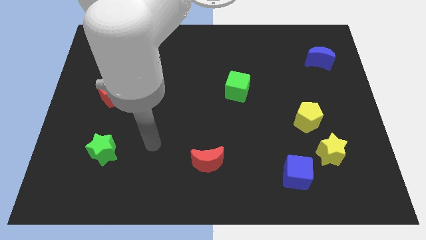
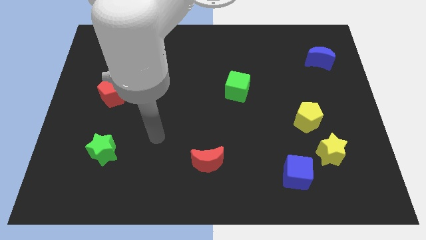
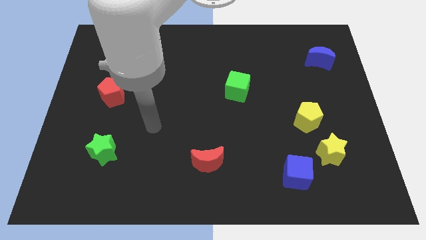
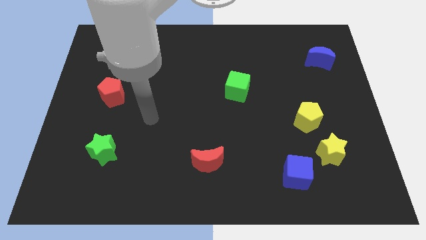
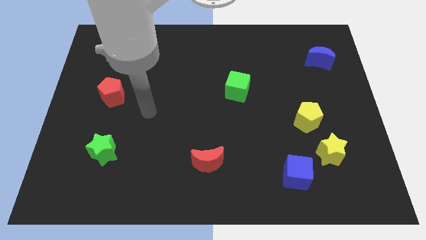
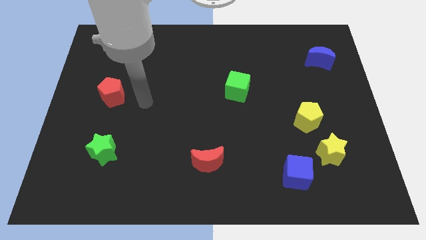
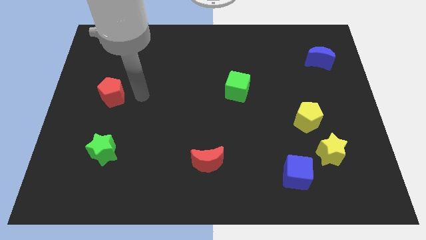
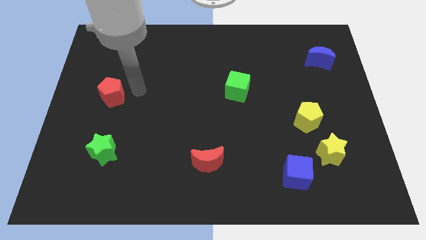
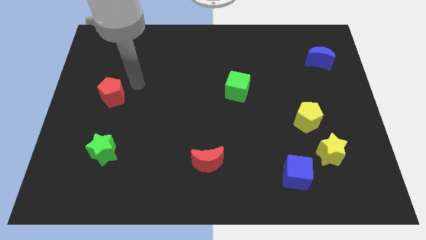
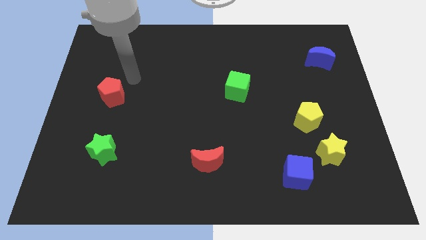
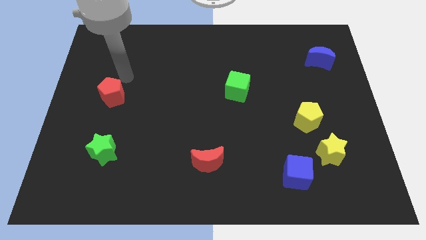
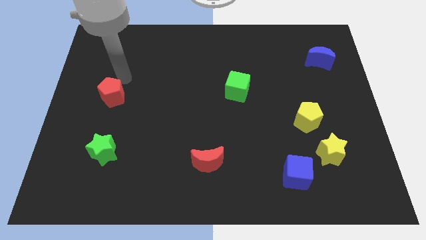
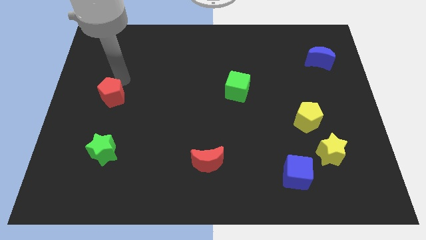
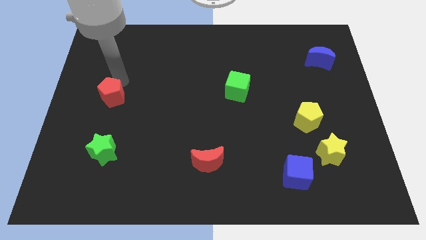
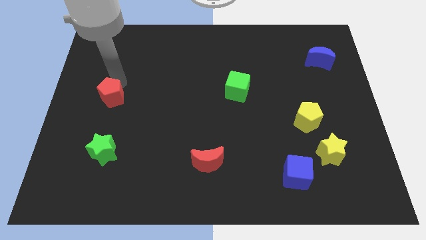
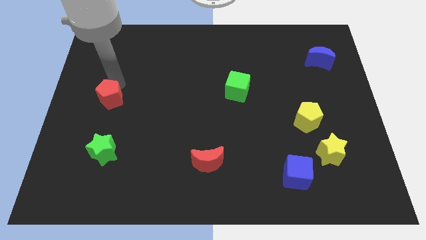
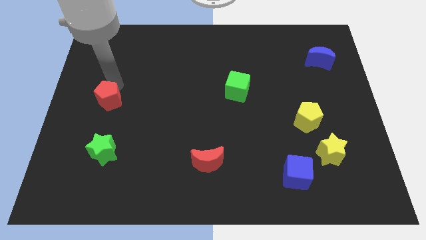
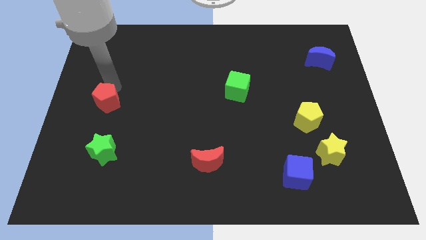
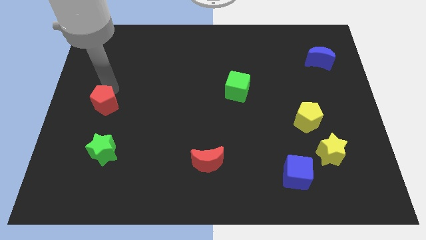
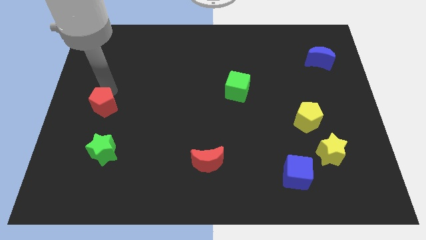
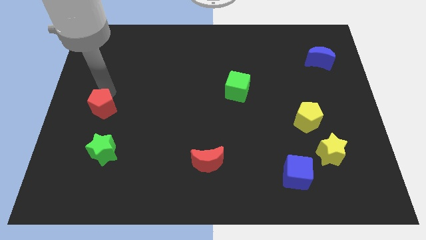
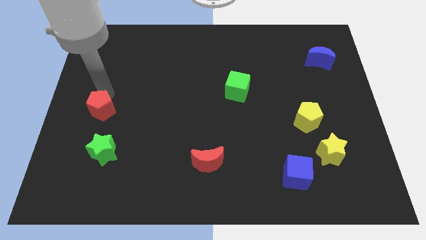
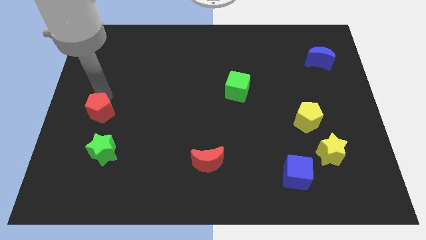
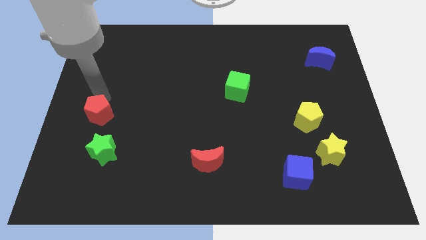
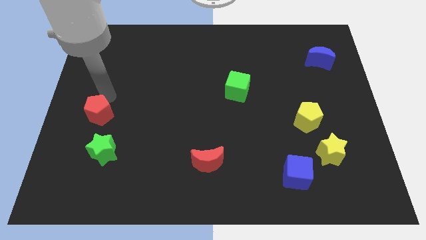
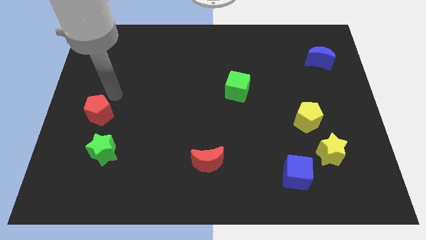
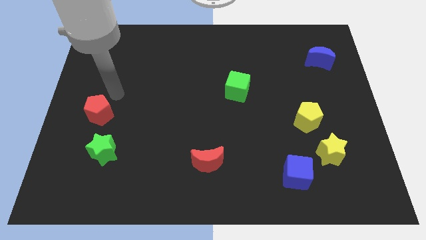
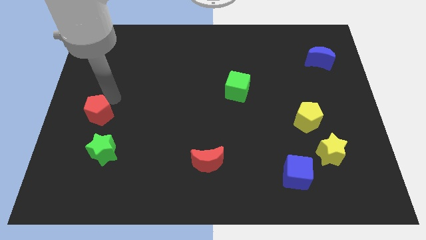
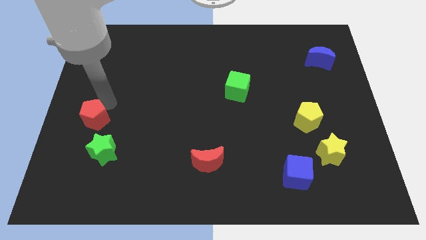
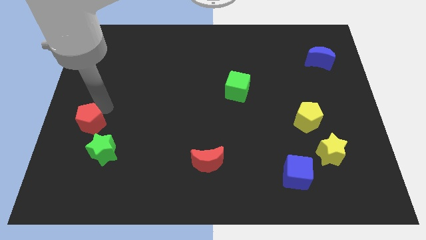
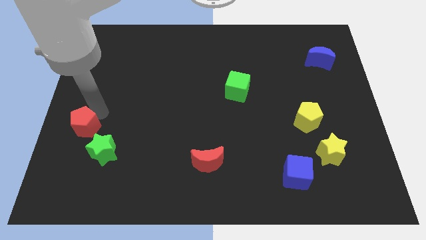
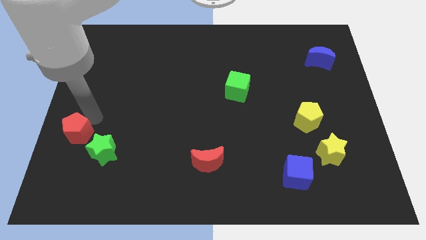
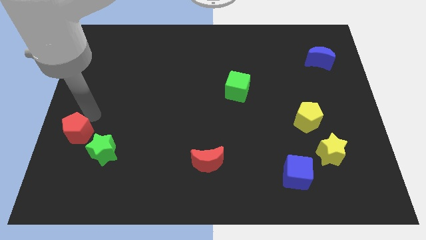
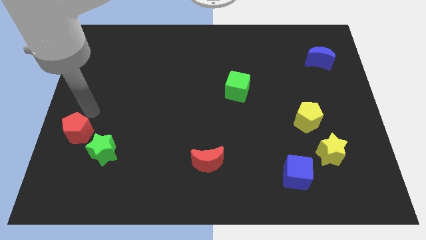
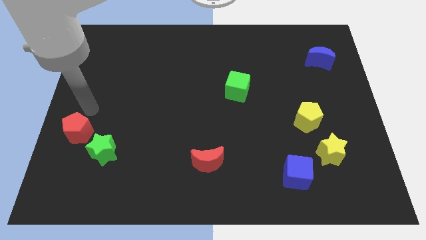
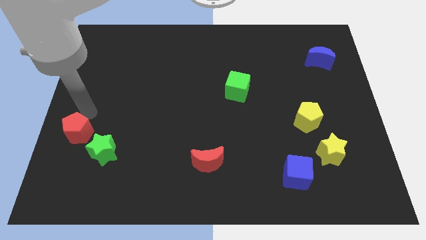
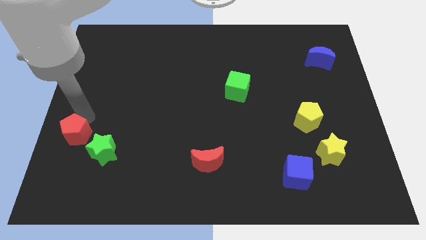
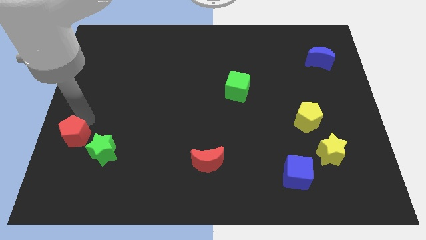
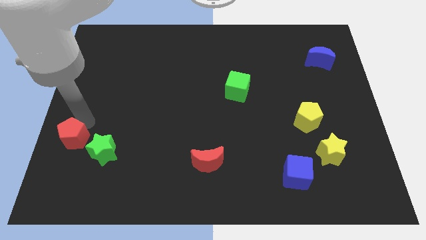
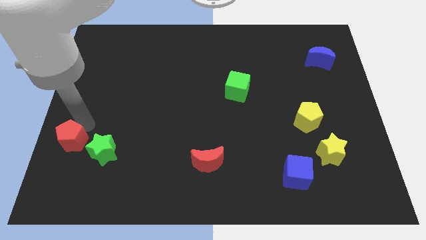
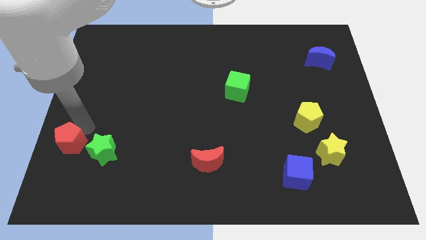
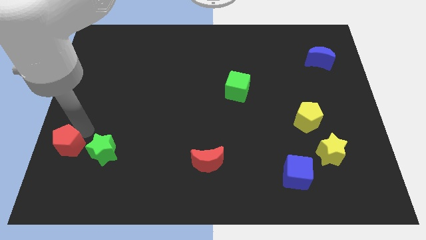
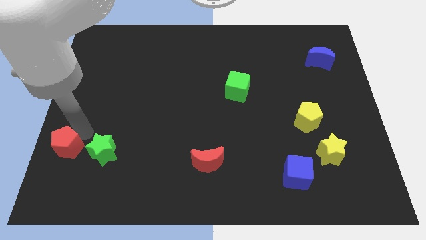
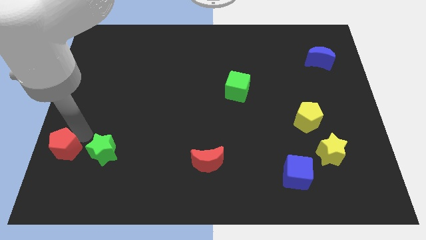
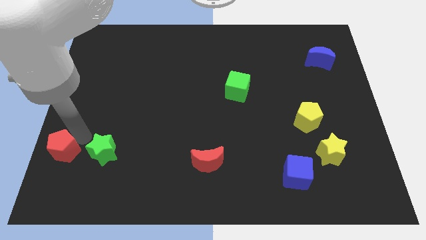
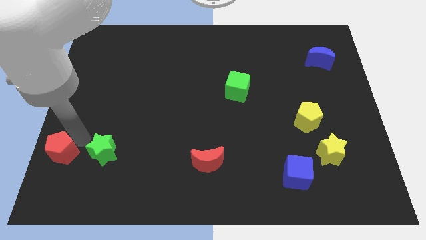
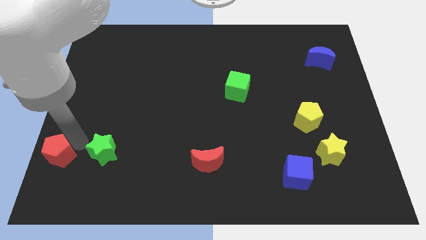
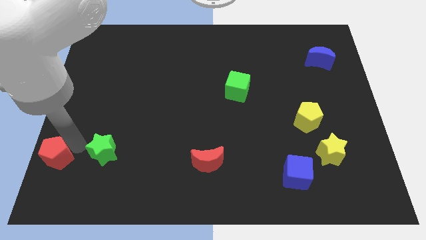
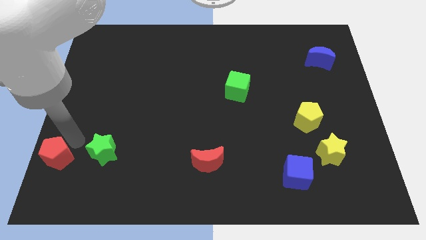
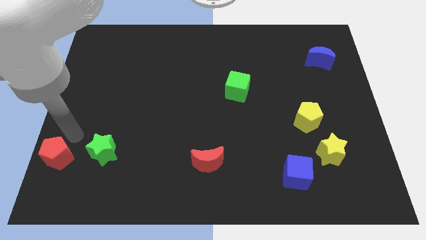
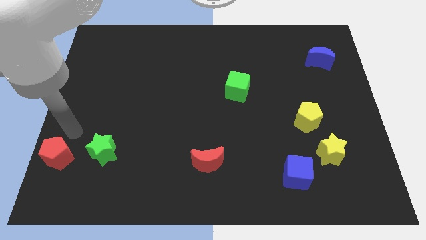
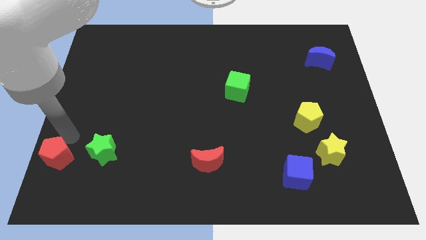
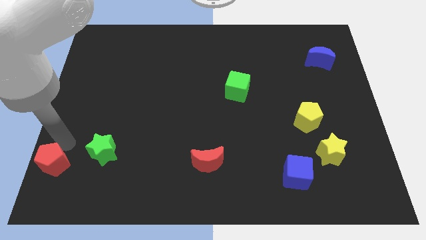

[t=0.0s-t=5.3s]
put the red pentagon to the lower left corner

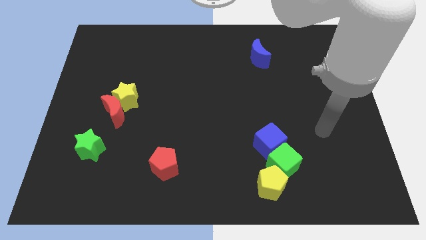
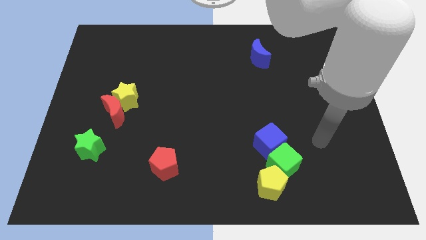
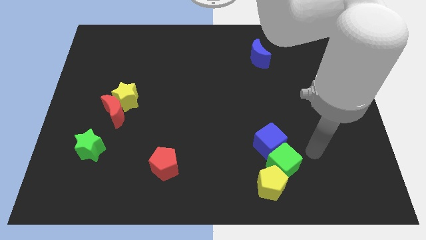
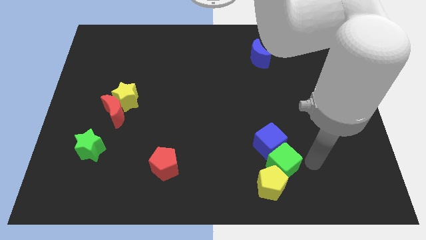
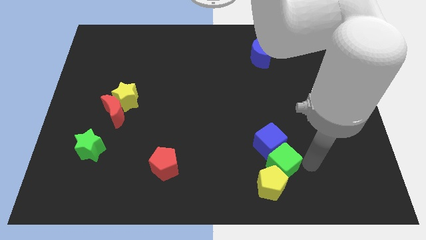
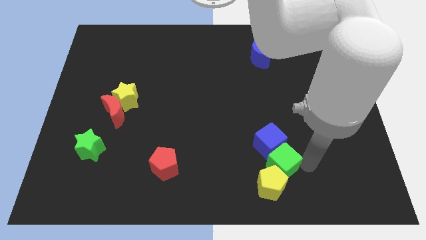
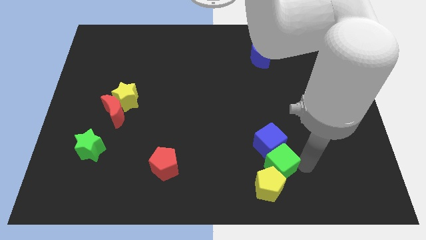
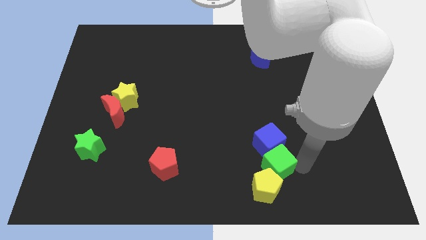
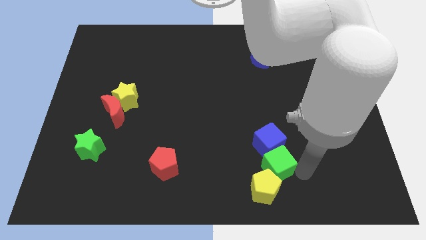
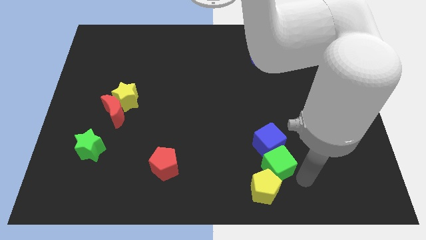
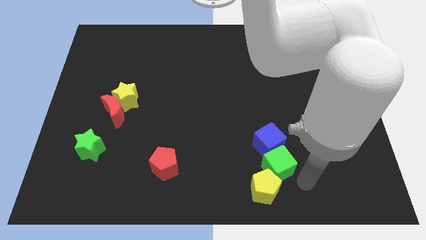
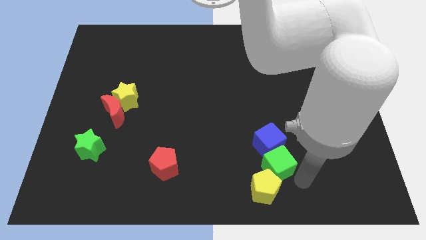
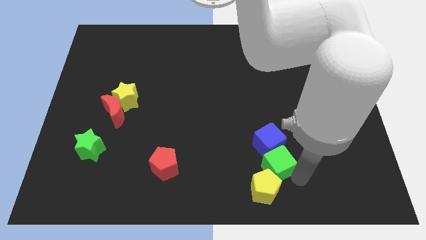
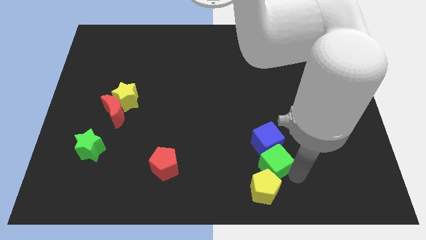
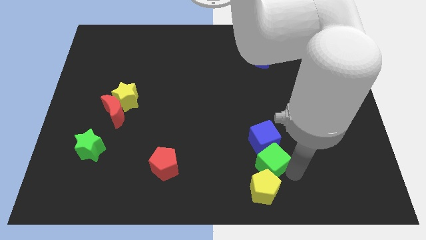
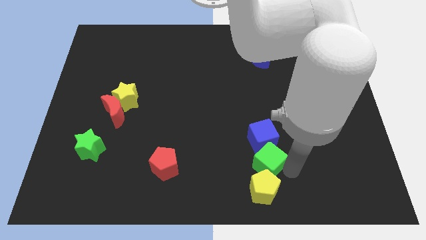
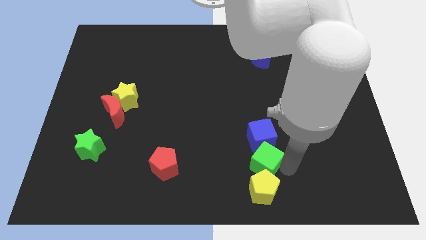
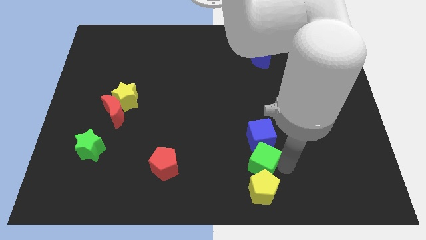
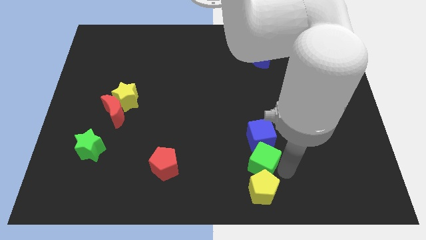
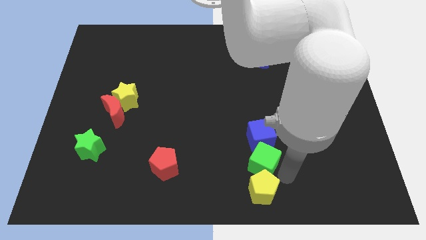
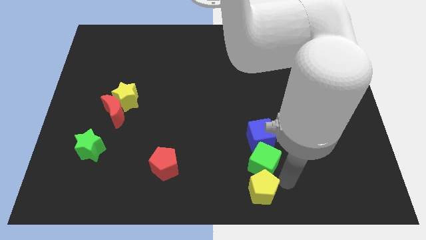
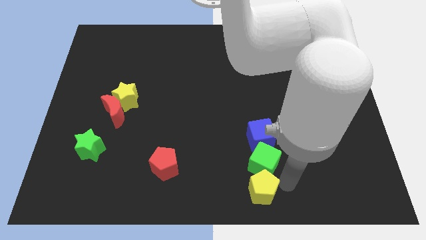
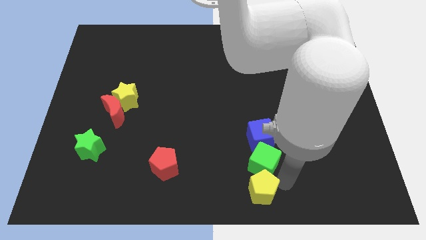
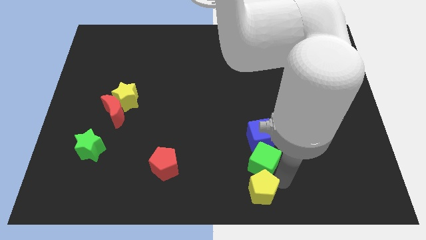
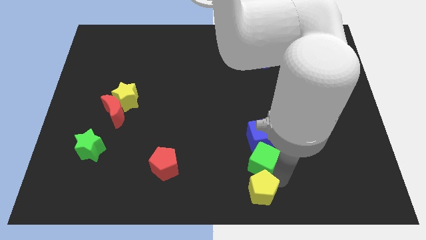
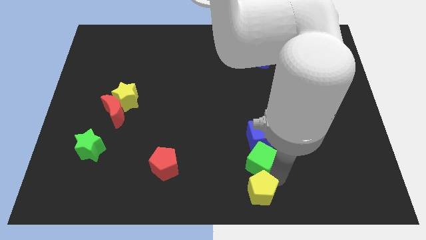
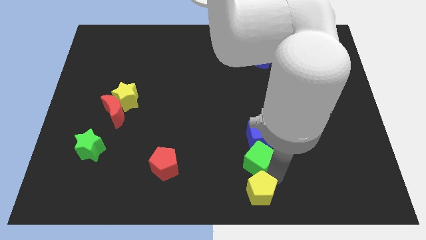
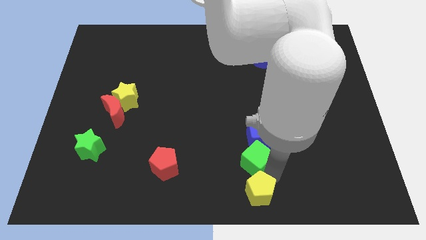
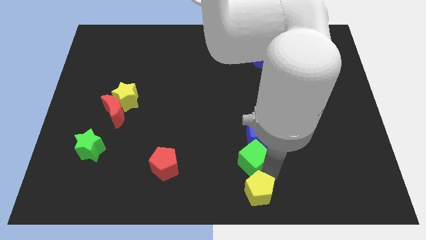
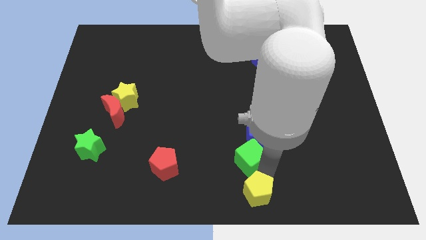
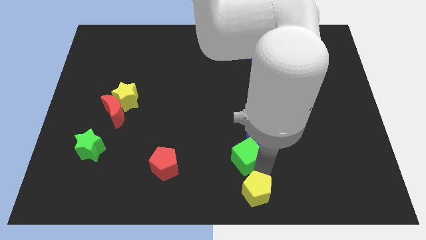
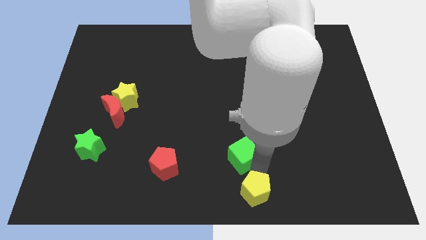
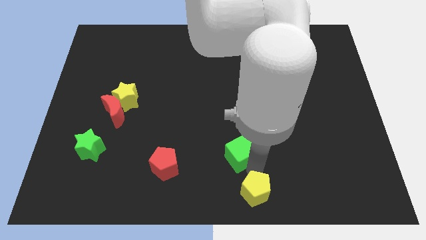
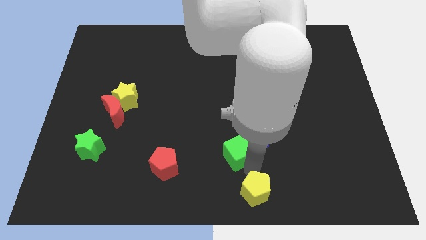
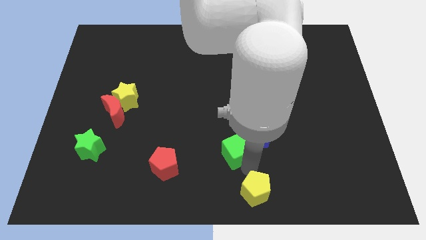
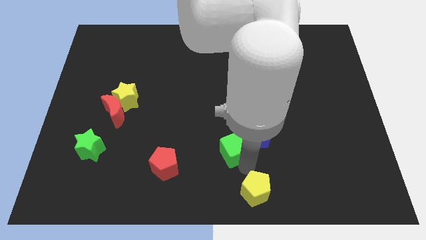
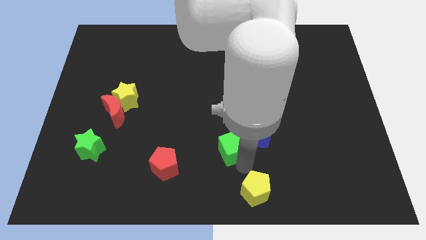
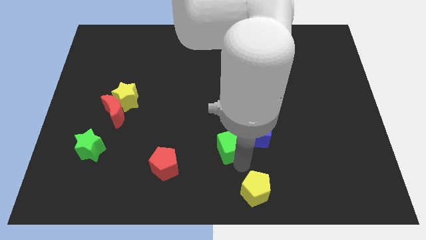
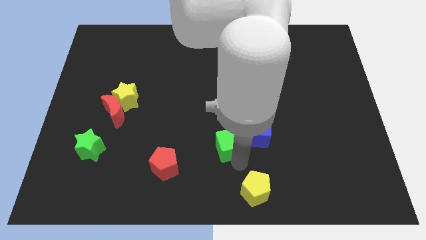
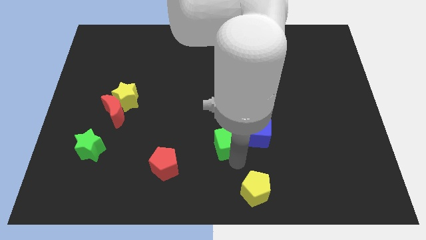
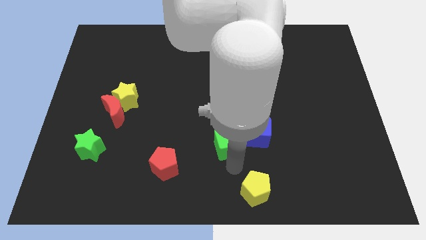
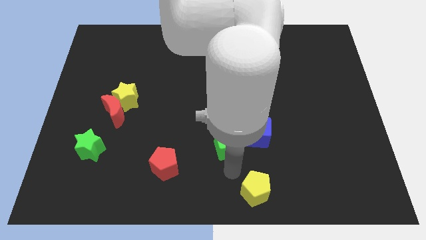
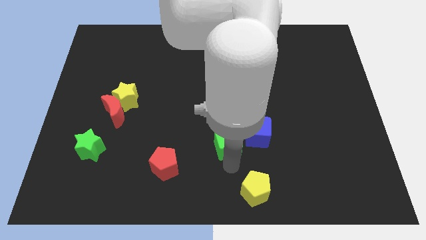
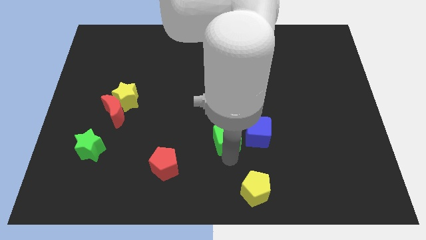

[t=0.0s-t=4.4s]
slide the green cube to the middle
